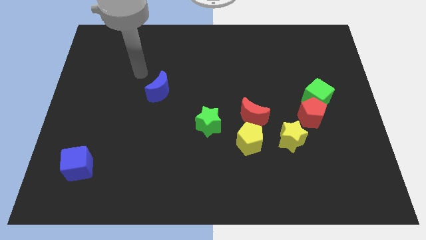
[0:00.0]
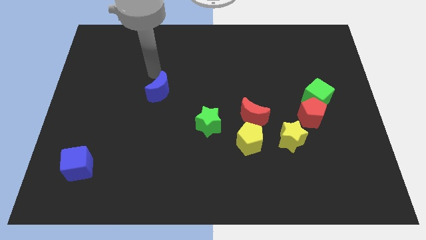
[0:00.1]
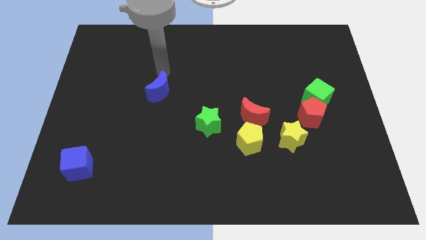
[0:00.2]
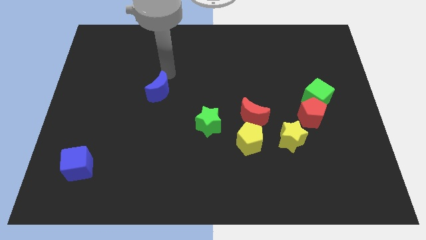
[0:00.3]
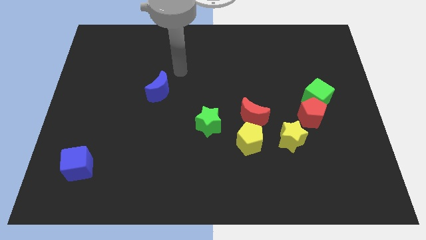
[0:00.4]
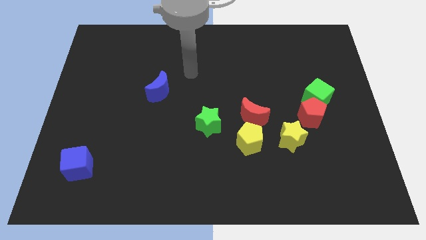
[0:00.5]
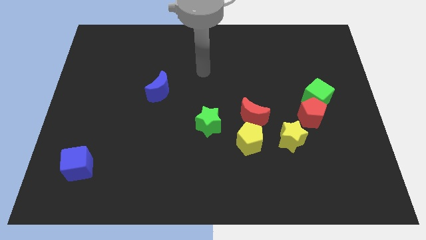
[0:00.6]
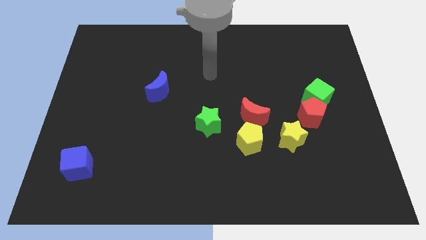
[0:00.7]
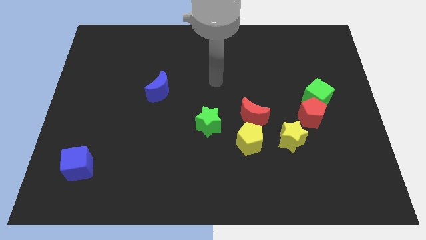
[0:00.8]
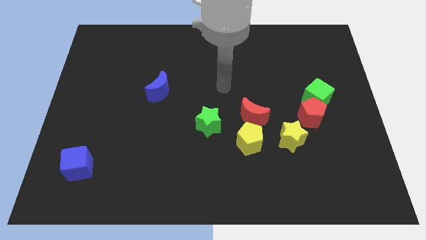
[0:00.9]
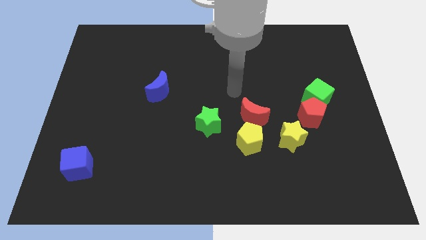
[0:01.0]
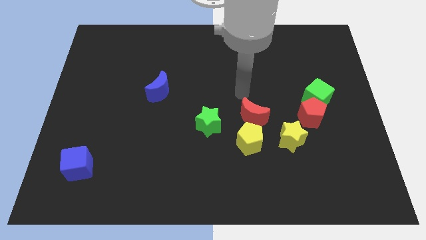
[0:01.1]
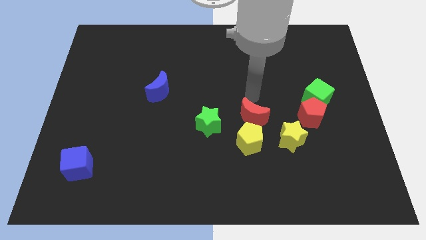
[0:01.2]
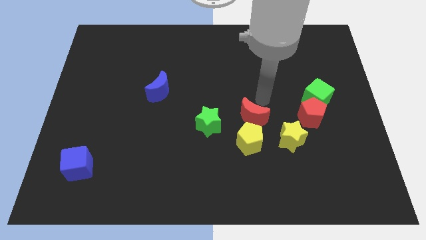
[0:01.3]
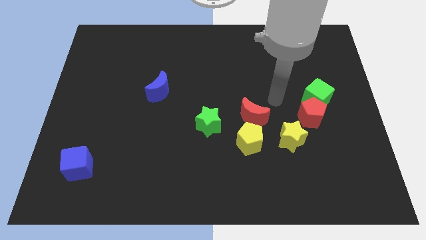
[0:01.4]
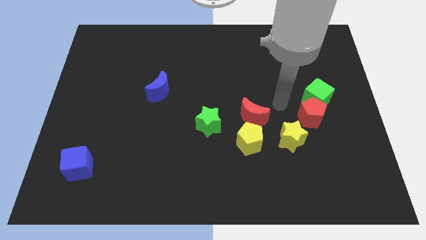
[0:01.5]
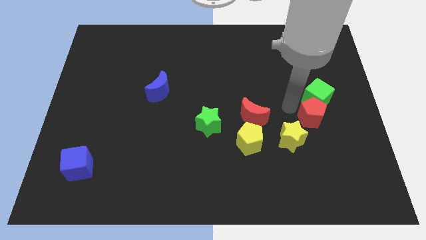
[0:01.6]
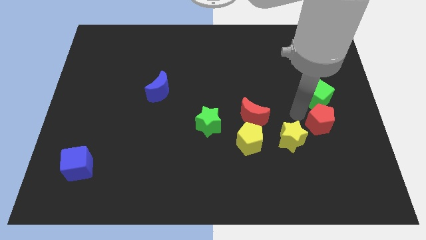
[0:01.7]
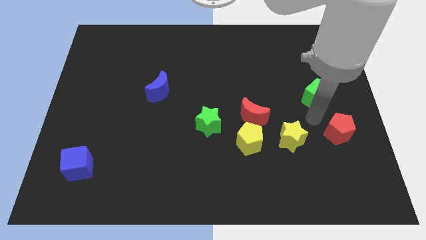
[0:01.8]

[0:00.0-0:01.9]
pull the green cube apart from the red pentagon

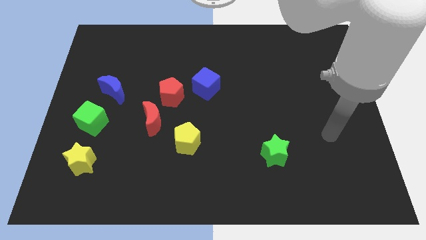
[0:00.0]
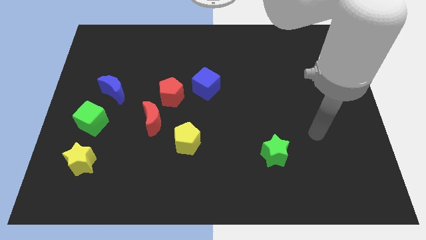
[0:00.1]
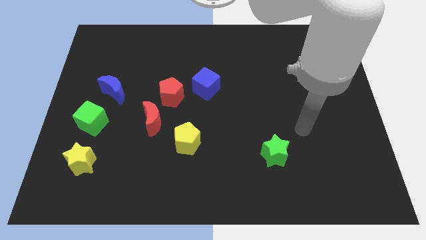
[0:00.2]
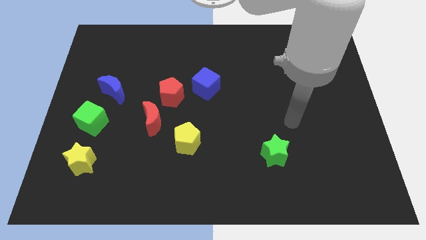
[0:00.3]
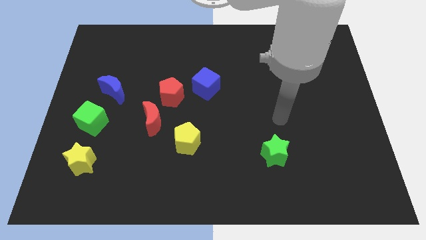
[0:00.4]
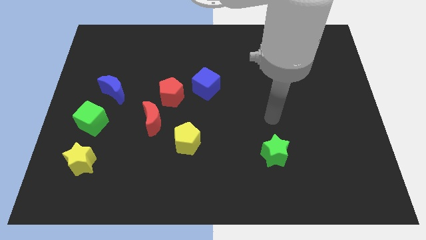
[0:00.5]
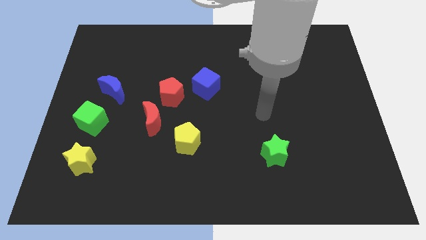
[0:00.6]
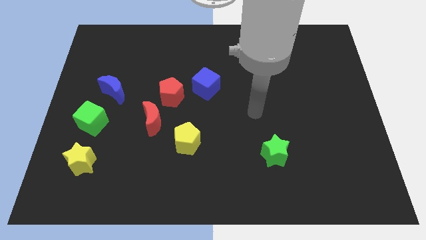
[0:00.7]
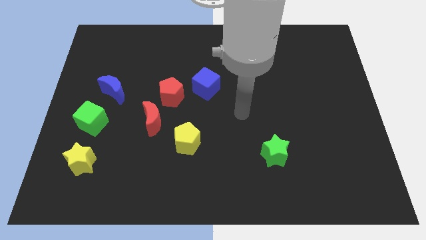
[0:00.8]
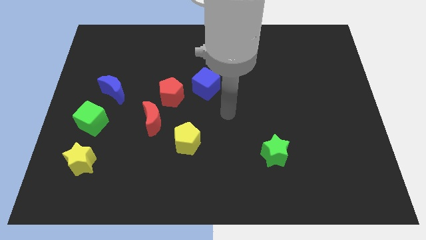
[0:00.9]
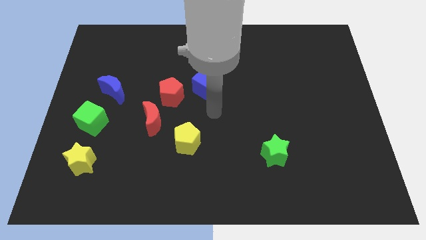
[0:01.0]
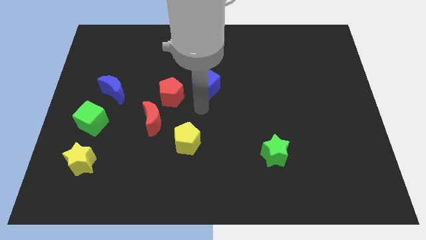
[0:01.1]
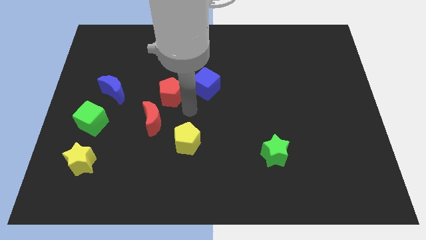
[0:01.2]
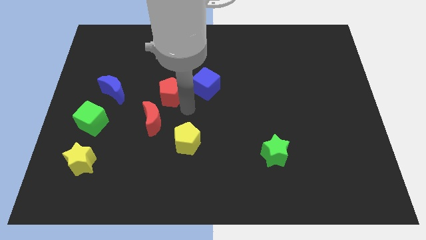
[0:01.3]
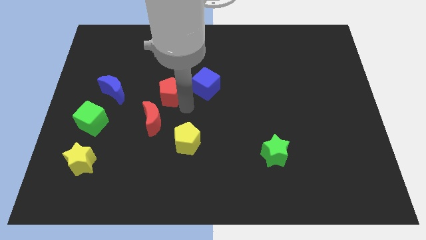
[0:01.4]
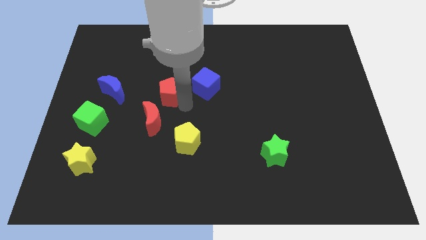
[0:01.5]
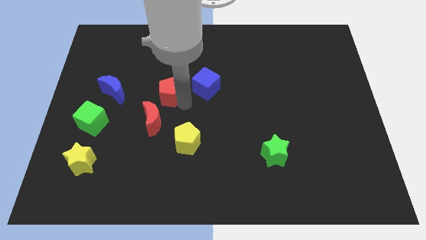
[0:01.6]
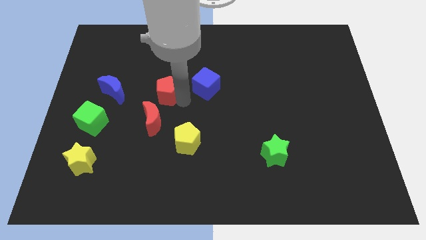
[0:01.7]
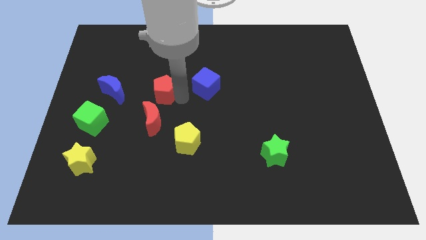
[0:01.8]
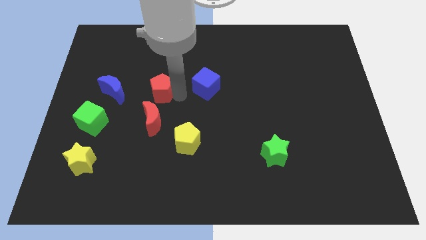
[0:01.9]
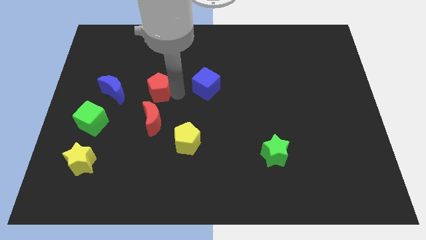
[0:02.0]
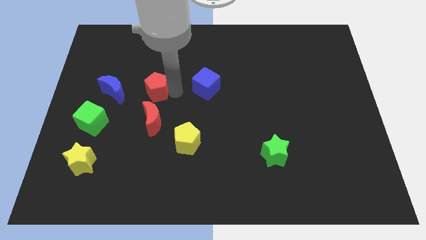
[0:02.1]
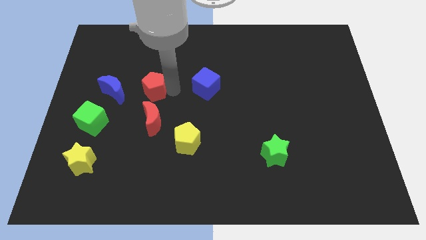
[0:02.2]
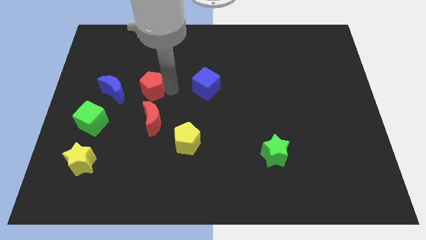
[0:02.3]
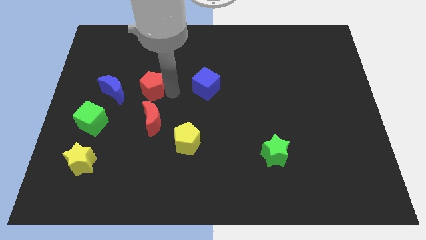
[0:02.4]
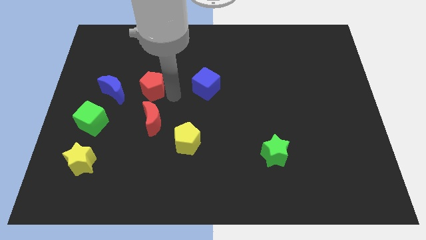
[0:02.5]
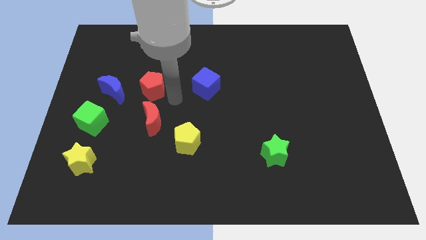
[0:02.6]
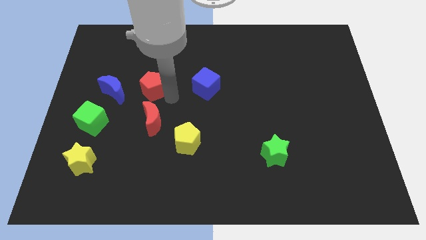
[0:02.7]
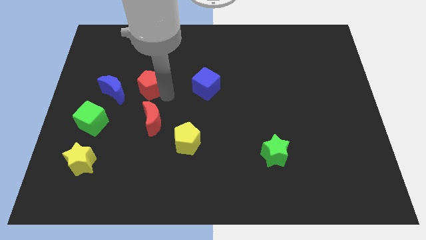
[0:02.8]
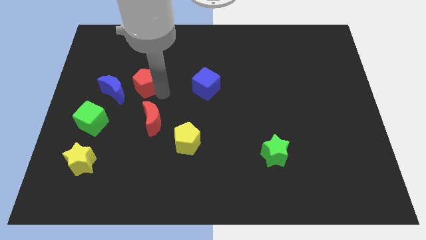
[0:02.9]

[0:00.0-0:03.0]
pull the red pentagon apart from the red moon and blue cube

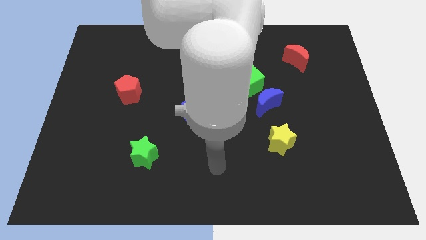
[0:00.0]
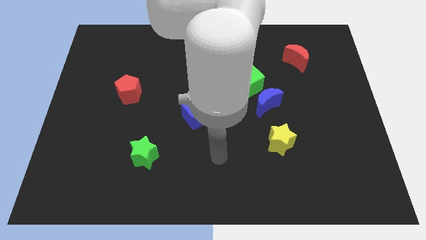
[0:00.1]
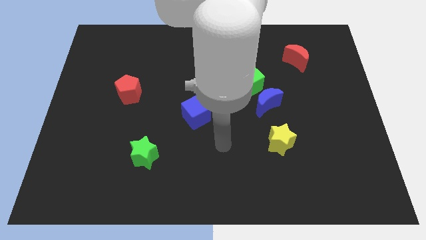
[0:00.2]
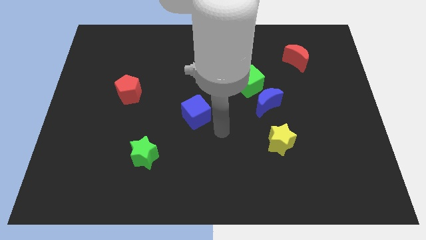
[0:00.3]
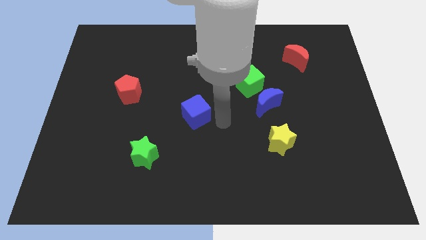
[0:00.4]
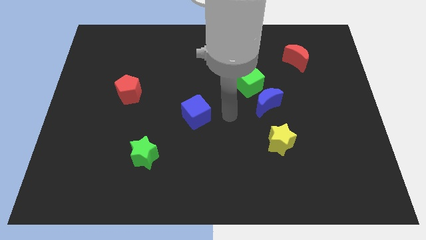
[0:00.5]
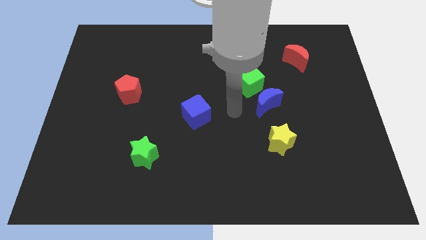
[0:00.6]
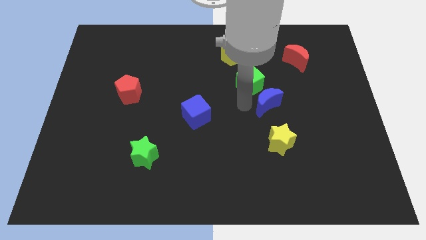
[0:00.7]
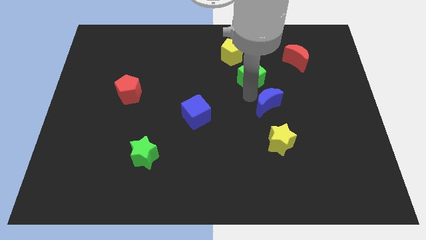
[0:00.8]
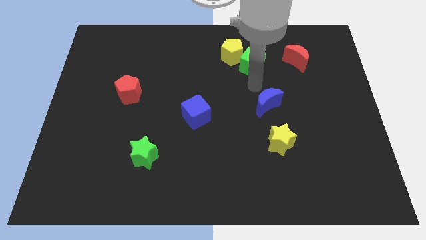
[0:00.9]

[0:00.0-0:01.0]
pull the blue moon apart from the green cube

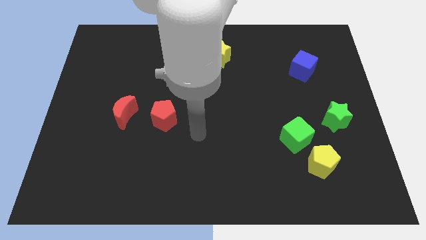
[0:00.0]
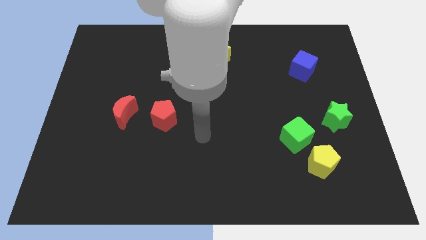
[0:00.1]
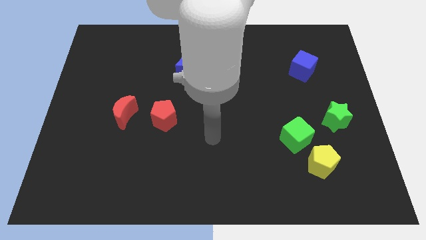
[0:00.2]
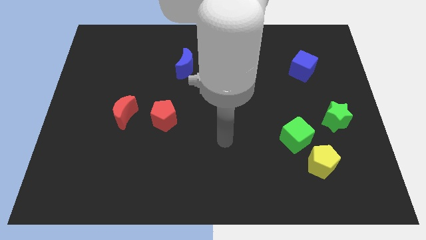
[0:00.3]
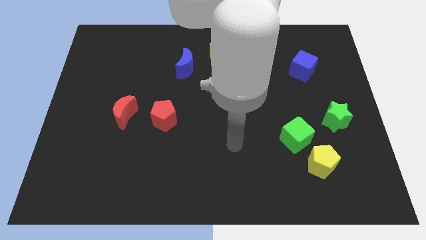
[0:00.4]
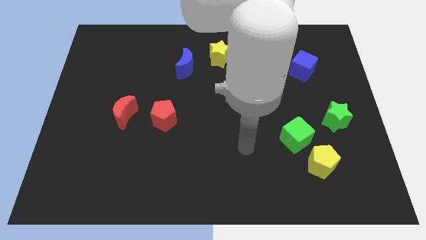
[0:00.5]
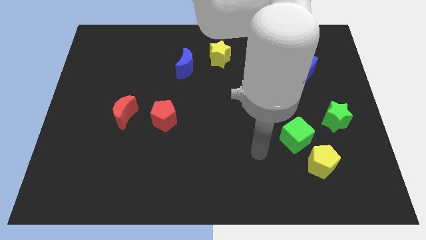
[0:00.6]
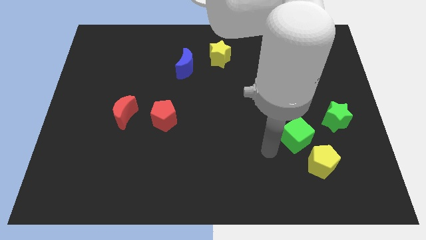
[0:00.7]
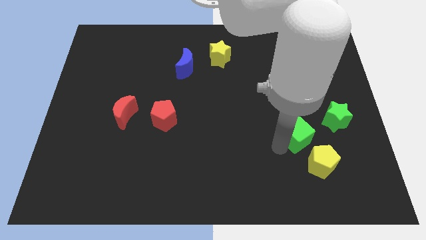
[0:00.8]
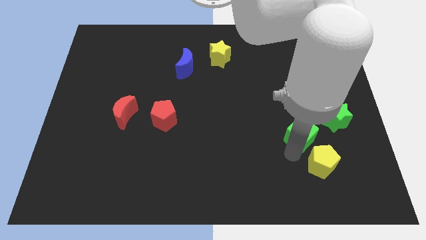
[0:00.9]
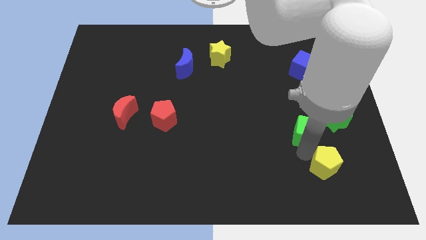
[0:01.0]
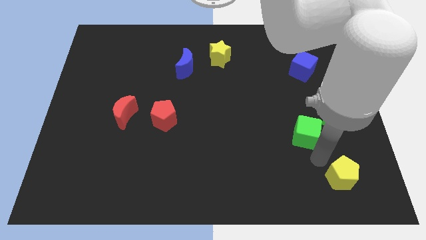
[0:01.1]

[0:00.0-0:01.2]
move the green cube away from the yellow pentagon

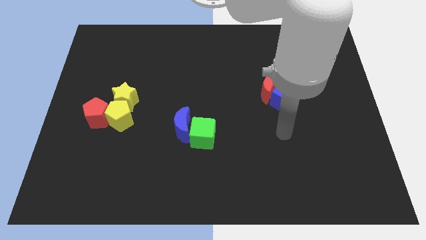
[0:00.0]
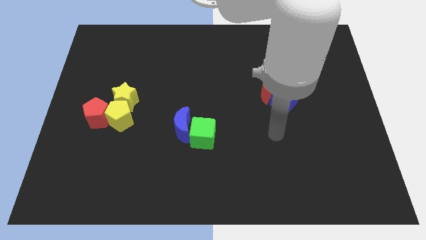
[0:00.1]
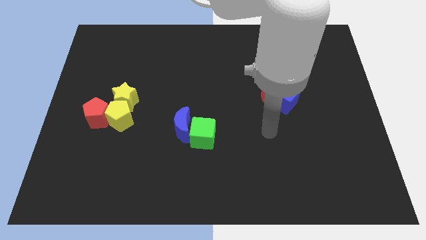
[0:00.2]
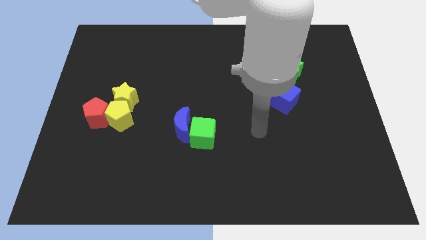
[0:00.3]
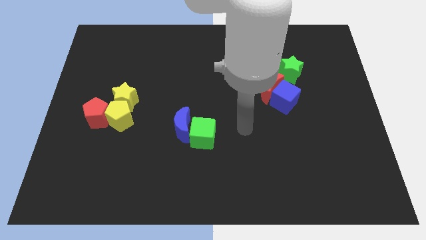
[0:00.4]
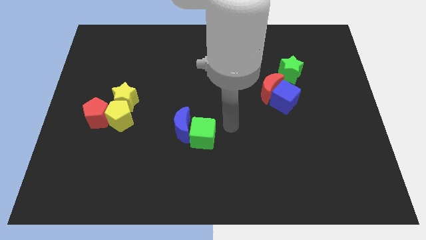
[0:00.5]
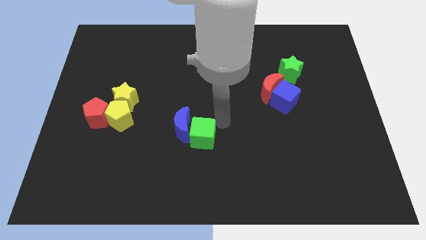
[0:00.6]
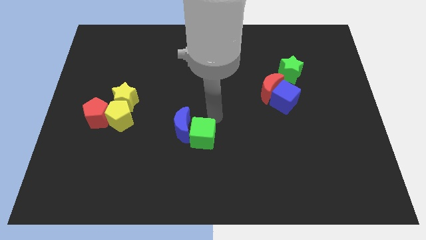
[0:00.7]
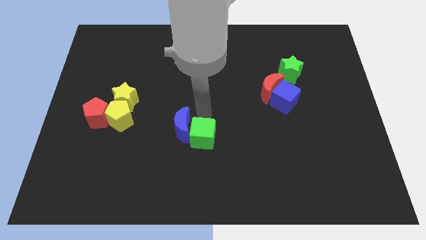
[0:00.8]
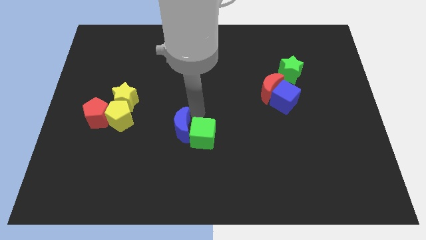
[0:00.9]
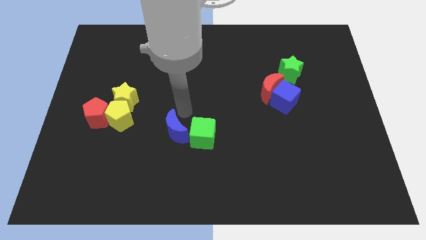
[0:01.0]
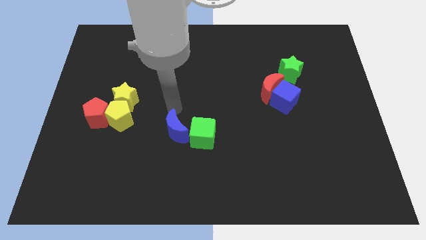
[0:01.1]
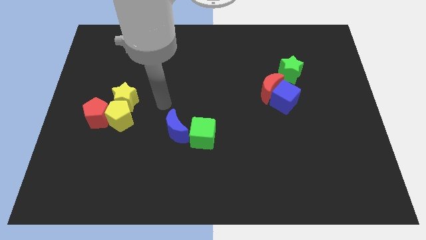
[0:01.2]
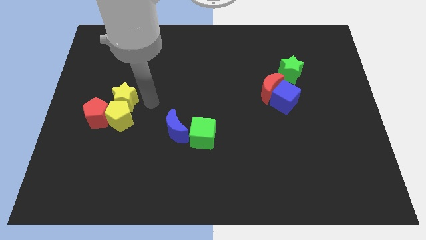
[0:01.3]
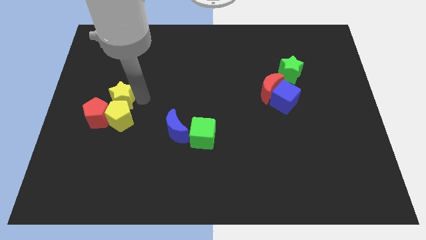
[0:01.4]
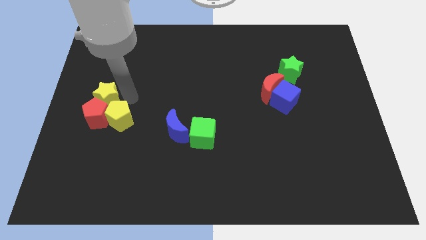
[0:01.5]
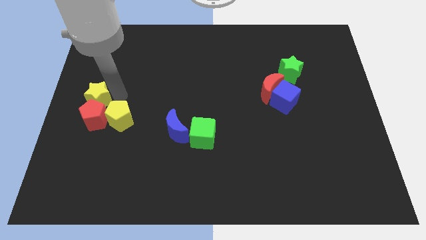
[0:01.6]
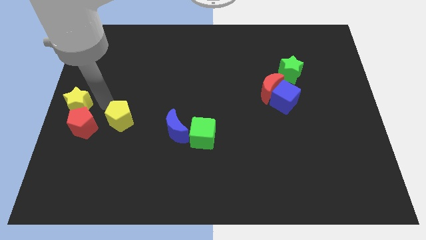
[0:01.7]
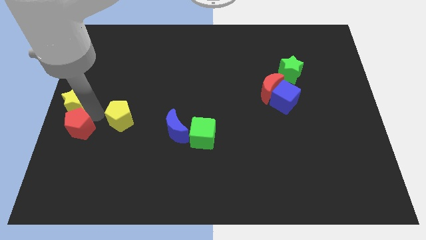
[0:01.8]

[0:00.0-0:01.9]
separate the yellow pentagon from the yellow star and red pentagon

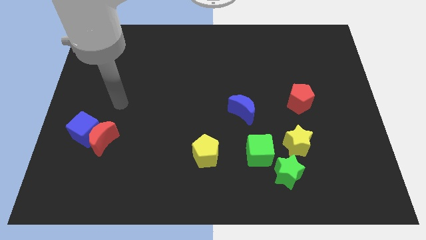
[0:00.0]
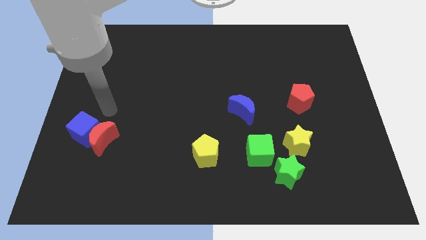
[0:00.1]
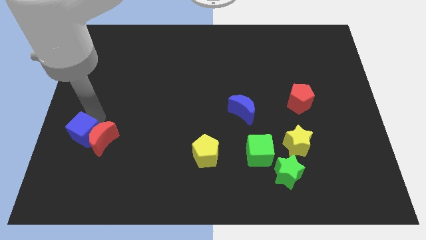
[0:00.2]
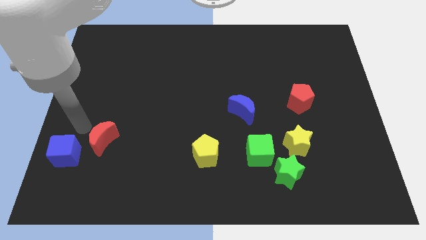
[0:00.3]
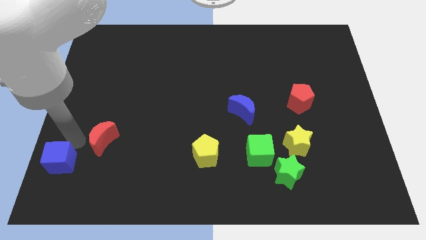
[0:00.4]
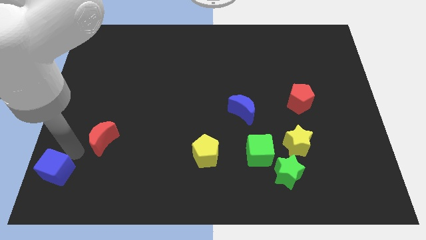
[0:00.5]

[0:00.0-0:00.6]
move the red moon away from the blue cube
